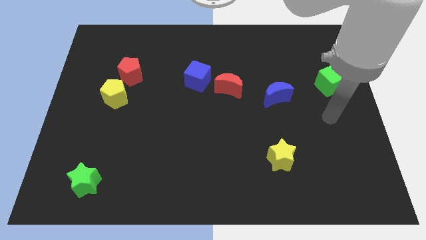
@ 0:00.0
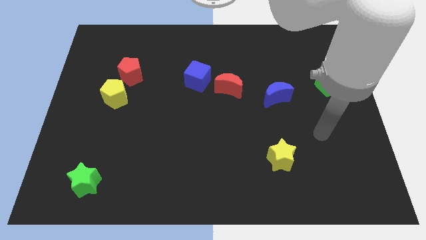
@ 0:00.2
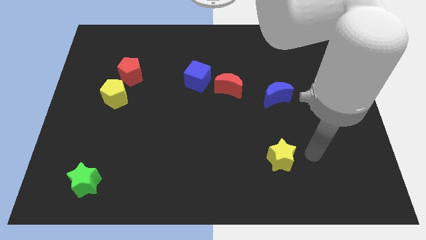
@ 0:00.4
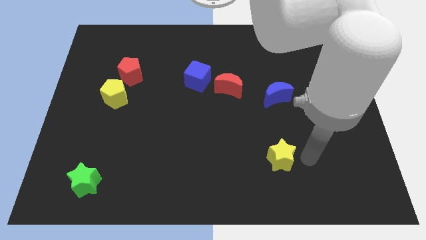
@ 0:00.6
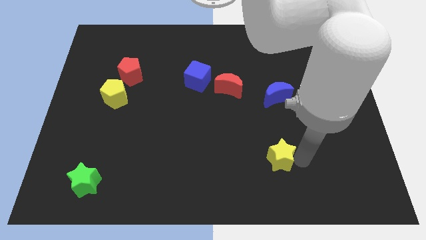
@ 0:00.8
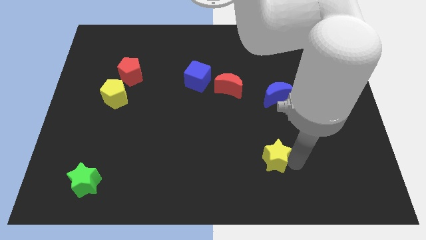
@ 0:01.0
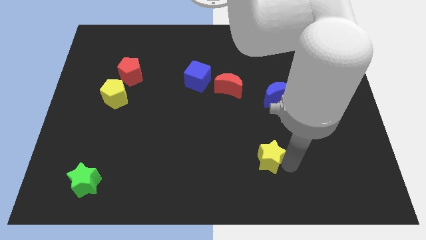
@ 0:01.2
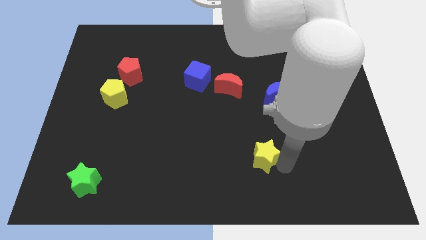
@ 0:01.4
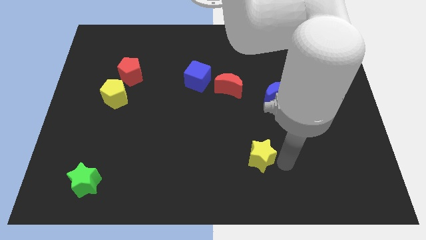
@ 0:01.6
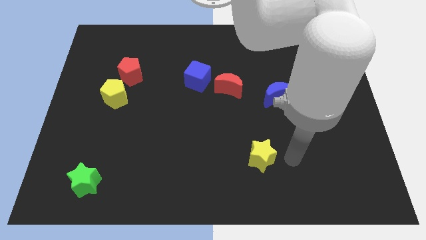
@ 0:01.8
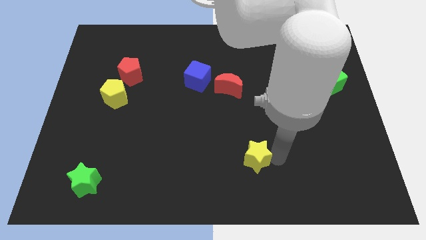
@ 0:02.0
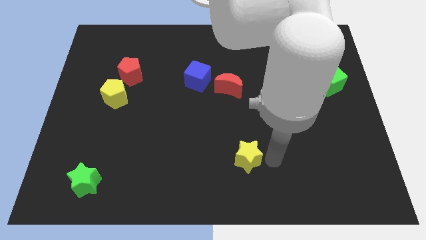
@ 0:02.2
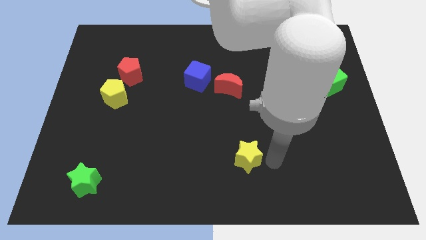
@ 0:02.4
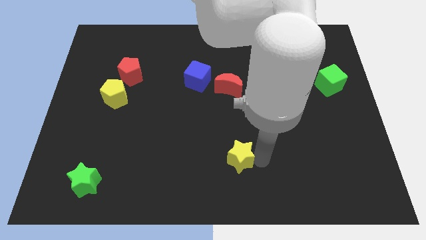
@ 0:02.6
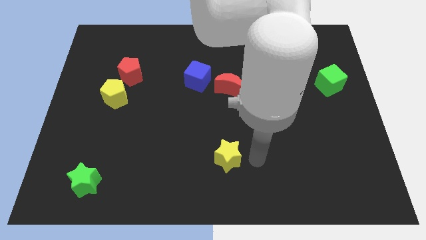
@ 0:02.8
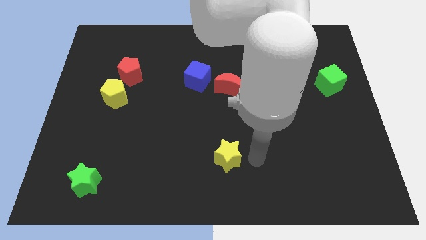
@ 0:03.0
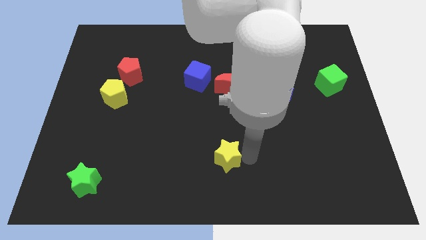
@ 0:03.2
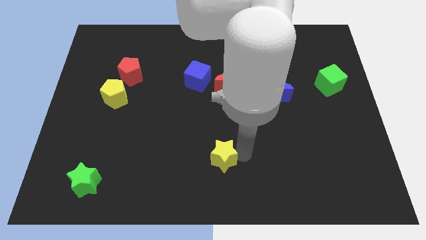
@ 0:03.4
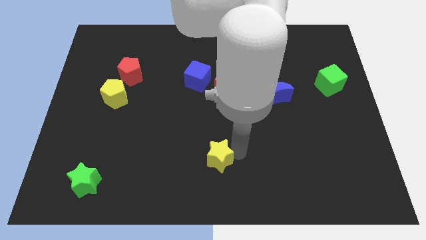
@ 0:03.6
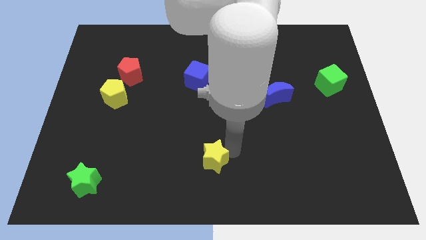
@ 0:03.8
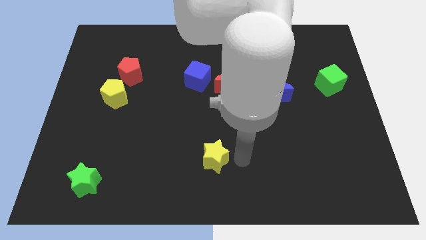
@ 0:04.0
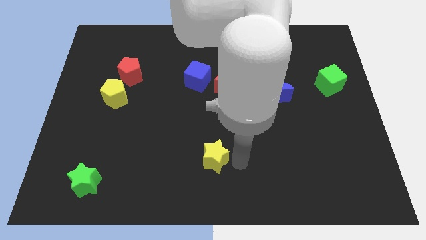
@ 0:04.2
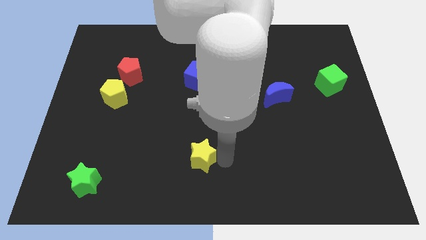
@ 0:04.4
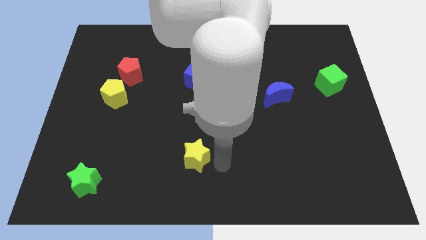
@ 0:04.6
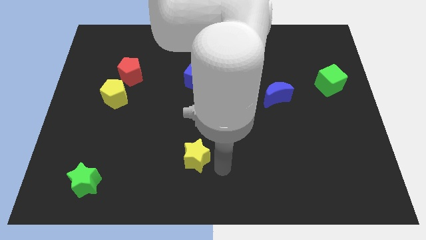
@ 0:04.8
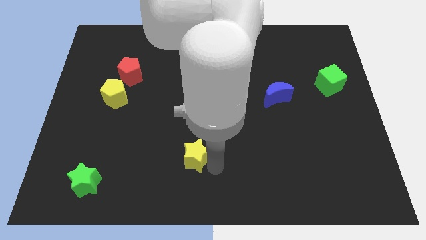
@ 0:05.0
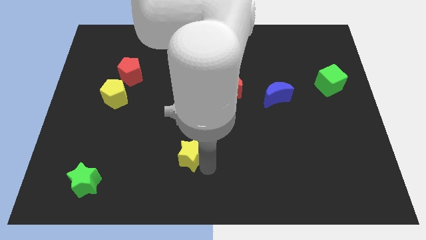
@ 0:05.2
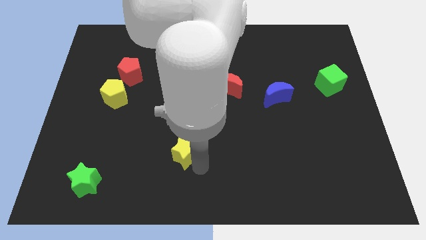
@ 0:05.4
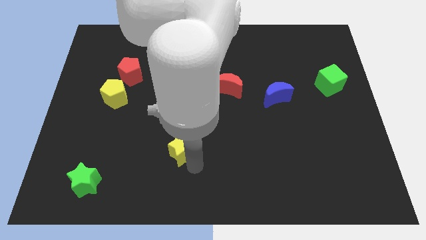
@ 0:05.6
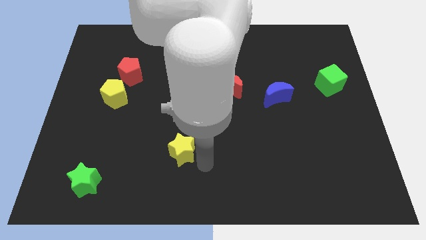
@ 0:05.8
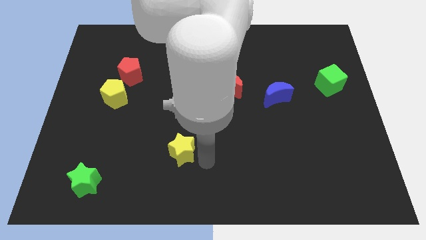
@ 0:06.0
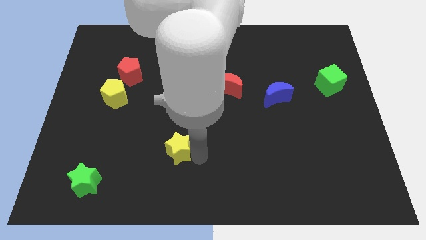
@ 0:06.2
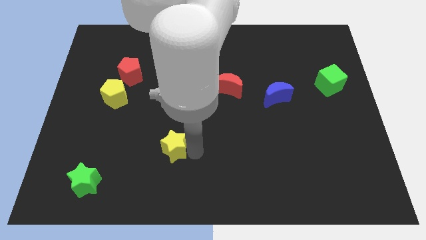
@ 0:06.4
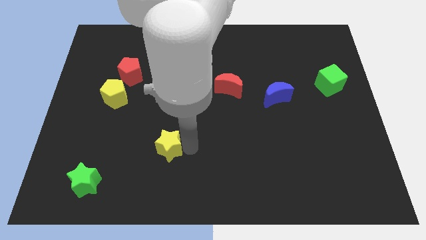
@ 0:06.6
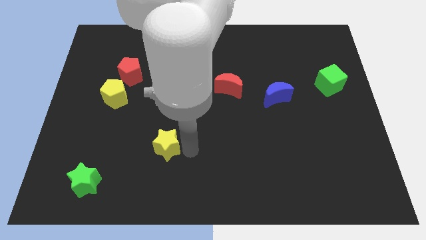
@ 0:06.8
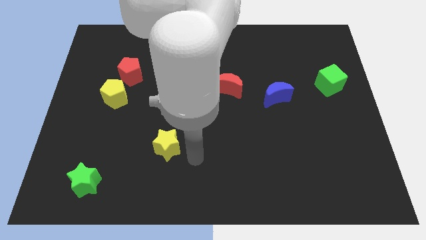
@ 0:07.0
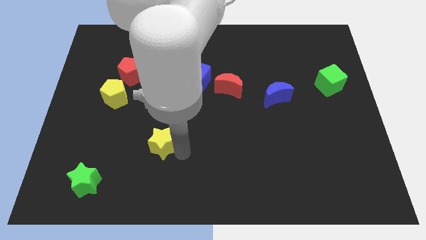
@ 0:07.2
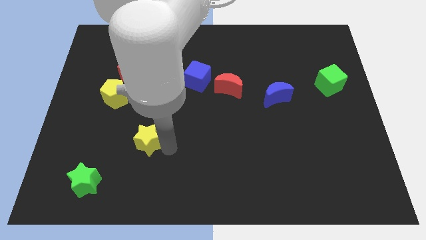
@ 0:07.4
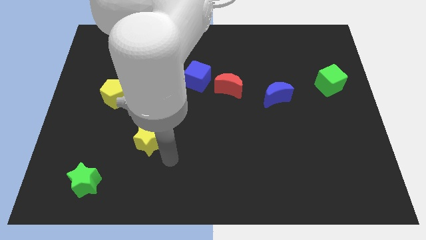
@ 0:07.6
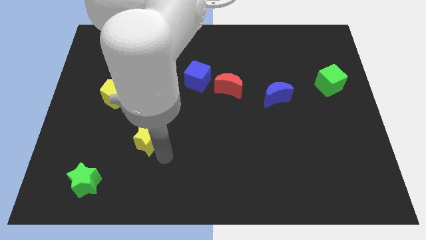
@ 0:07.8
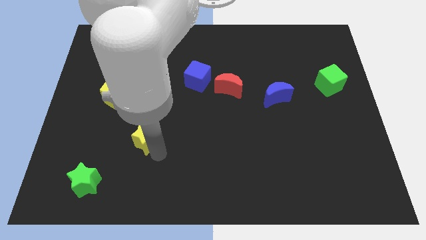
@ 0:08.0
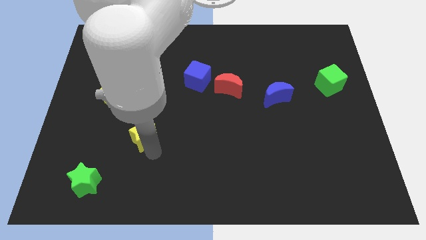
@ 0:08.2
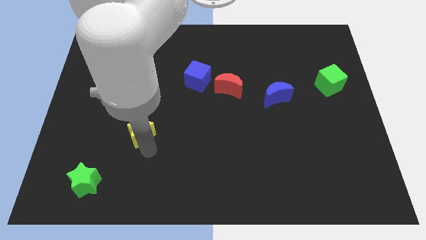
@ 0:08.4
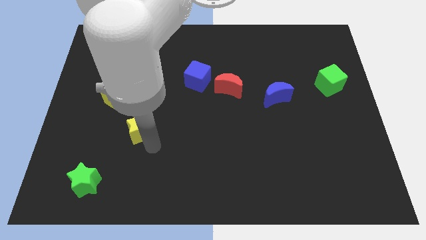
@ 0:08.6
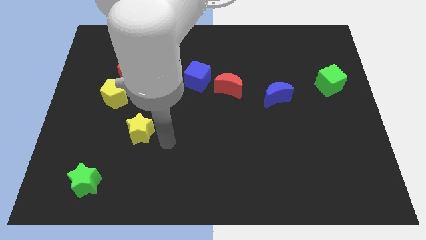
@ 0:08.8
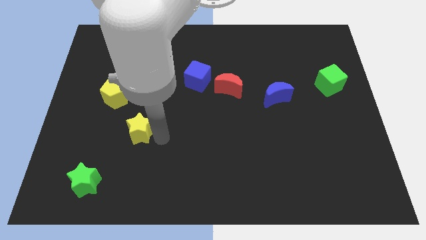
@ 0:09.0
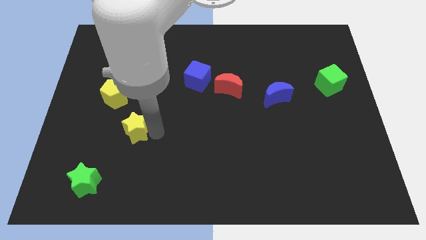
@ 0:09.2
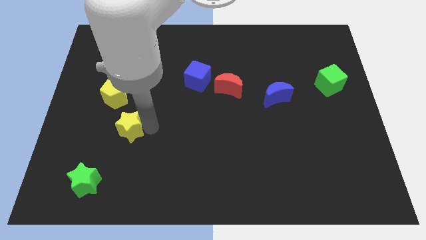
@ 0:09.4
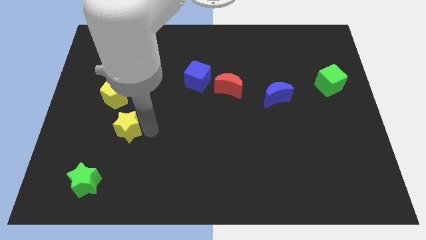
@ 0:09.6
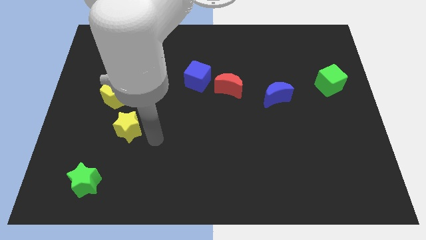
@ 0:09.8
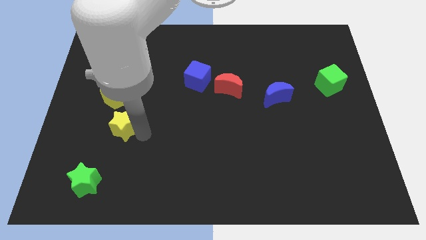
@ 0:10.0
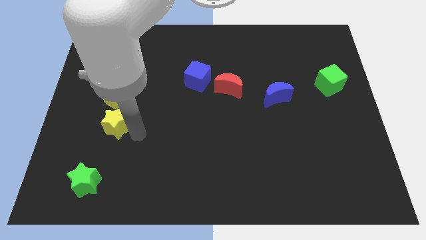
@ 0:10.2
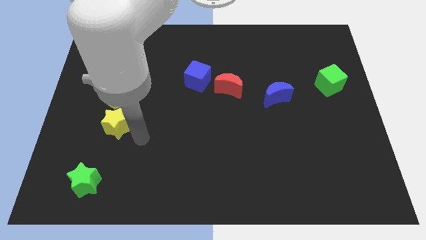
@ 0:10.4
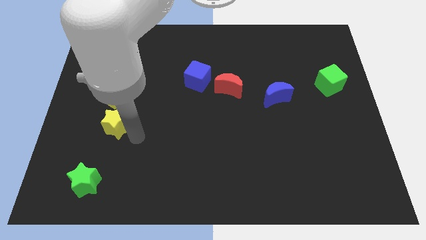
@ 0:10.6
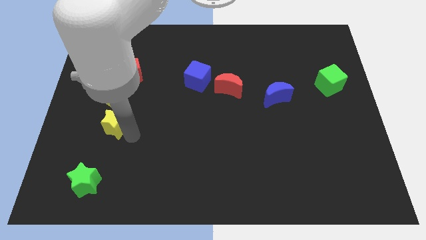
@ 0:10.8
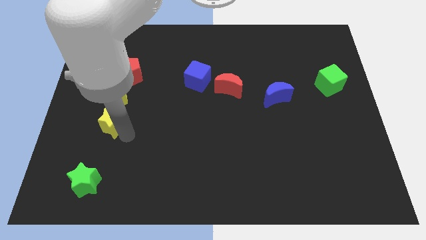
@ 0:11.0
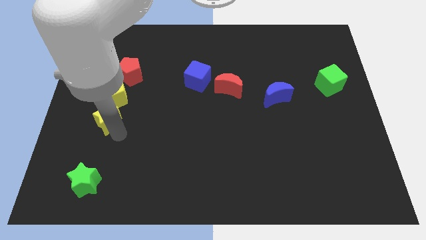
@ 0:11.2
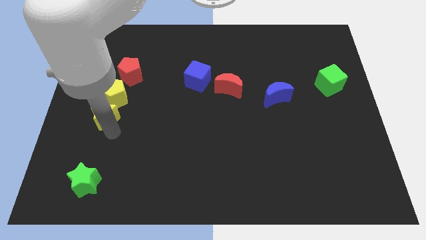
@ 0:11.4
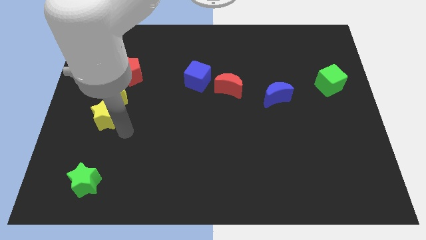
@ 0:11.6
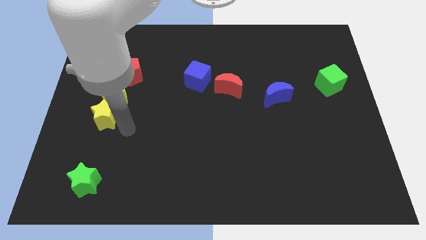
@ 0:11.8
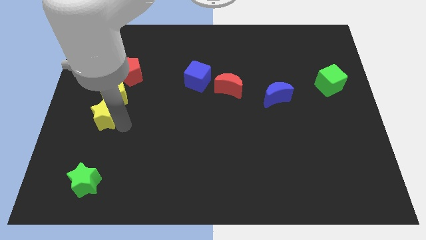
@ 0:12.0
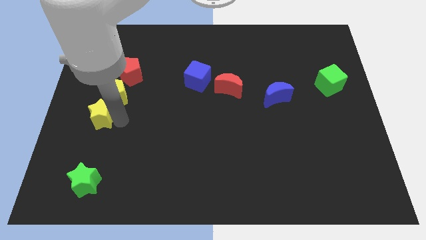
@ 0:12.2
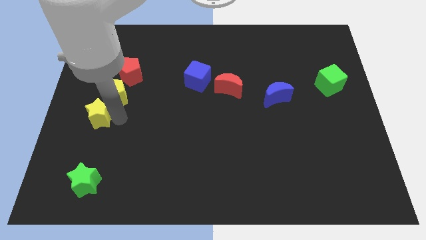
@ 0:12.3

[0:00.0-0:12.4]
slide the yellow star to the left side of the board

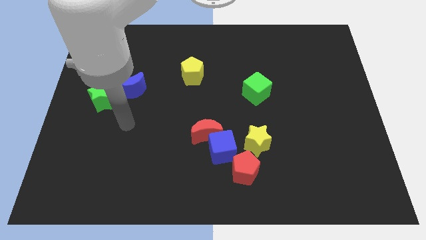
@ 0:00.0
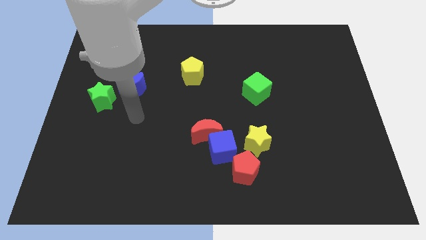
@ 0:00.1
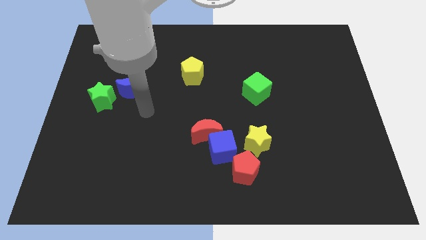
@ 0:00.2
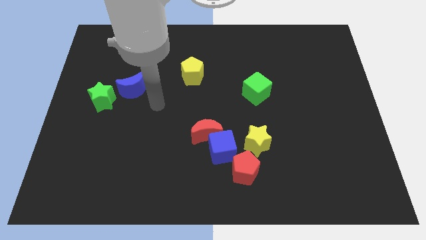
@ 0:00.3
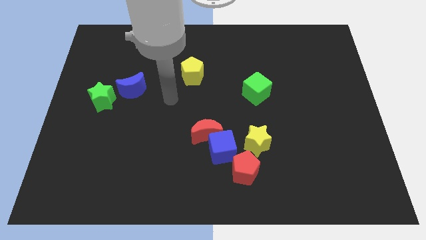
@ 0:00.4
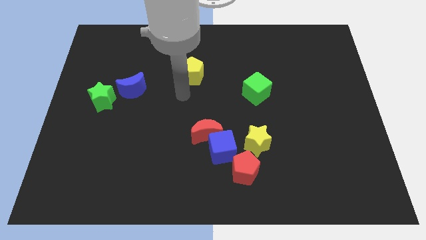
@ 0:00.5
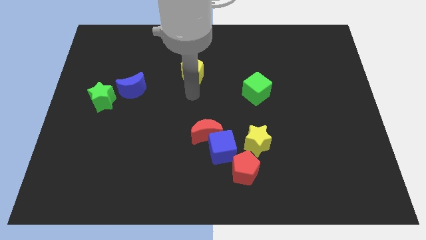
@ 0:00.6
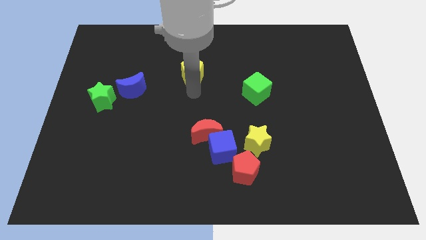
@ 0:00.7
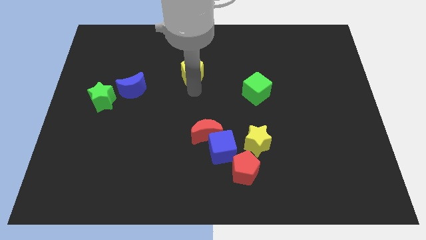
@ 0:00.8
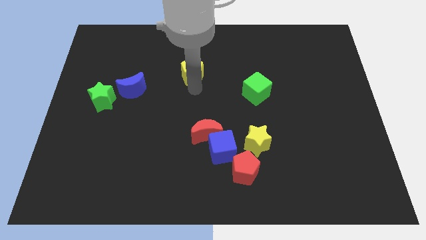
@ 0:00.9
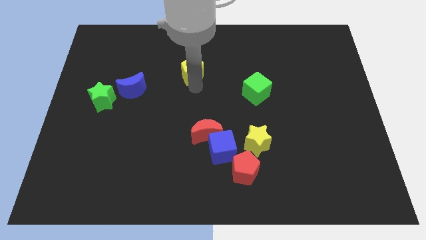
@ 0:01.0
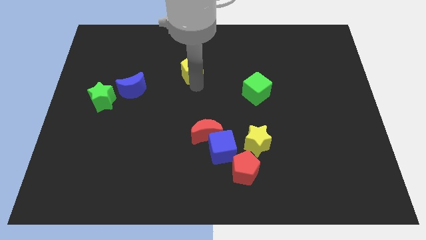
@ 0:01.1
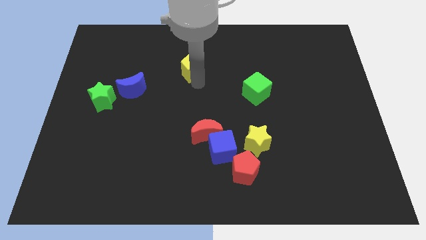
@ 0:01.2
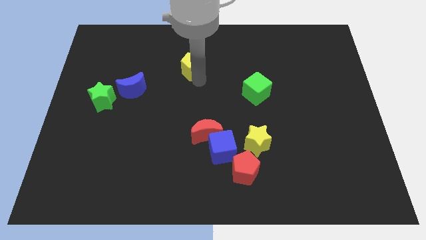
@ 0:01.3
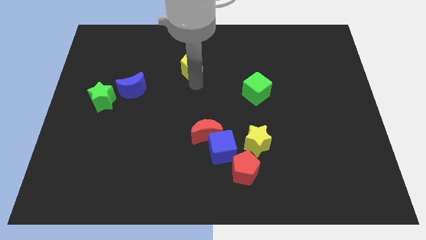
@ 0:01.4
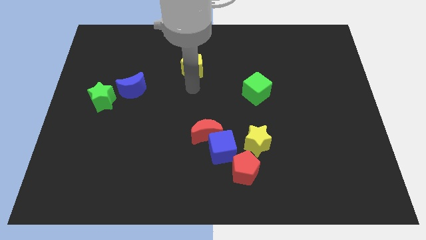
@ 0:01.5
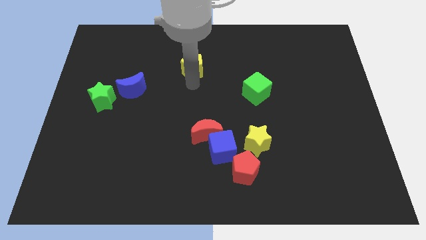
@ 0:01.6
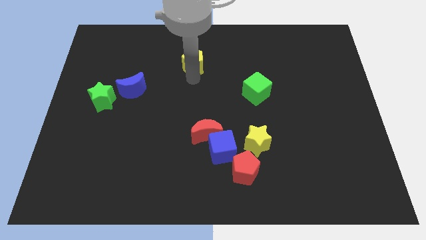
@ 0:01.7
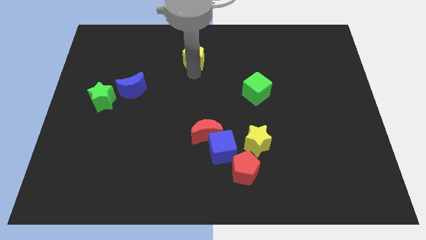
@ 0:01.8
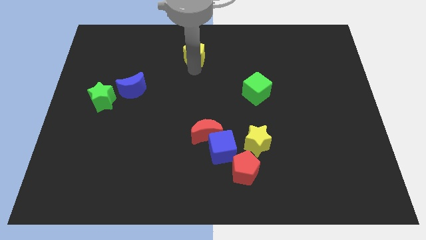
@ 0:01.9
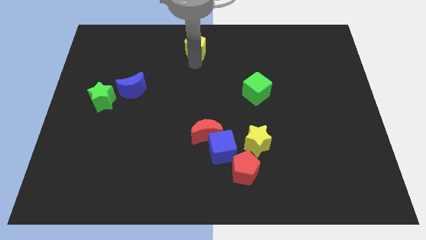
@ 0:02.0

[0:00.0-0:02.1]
move the yellow pentagon to the towards your base
